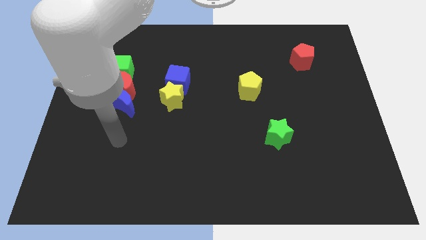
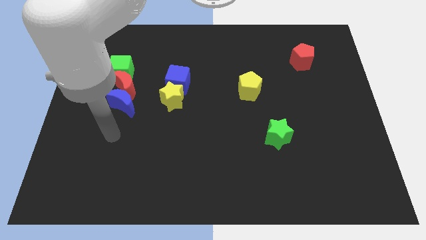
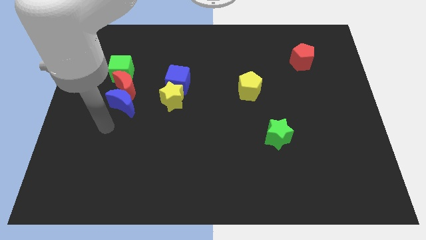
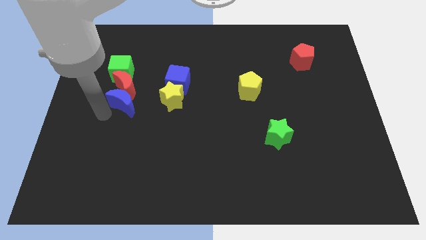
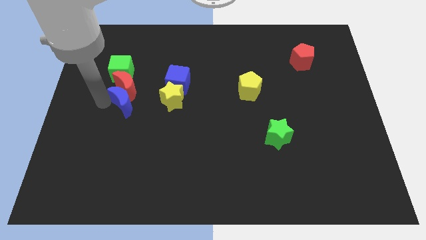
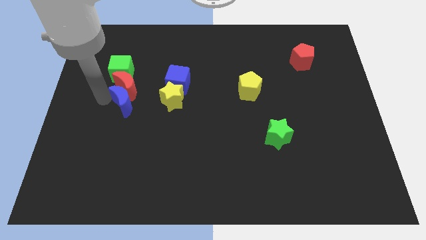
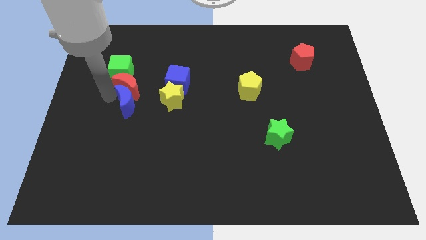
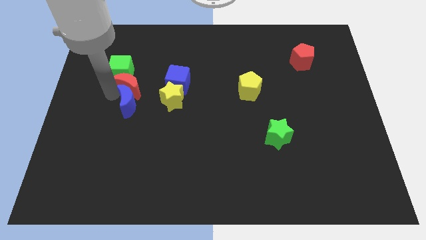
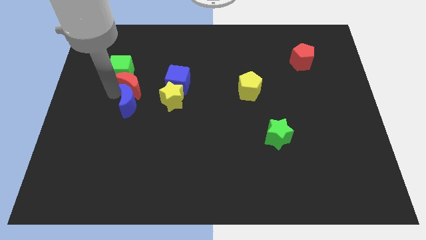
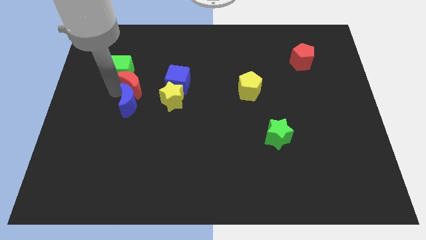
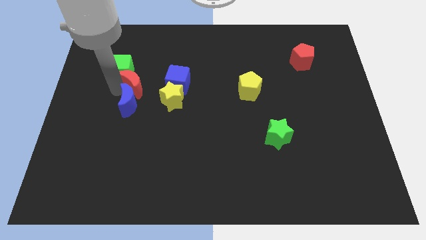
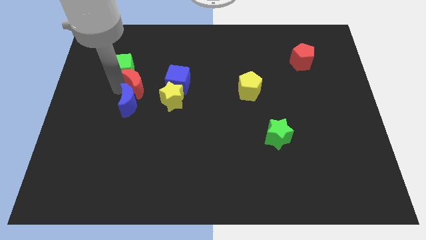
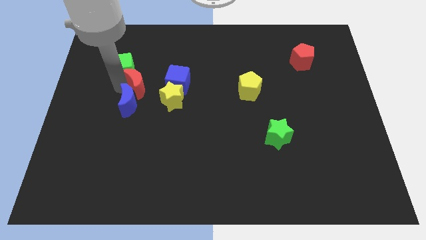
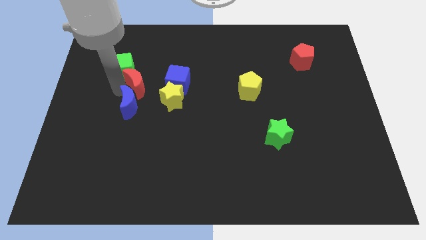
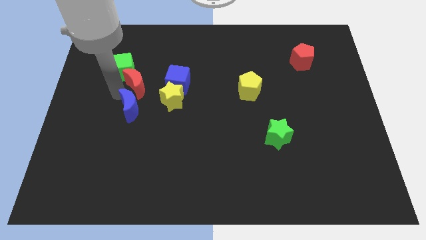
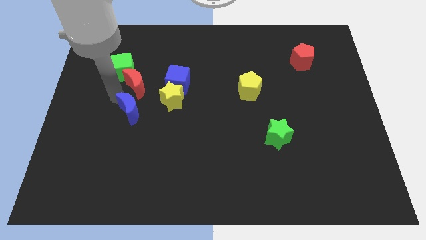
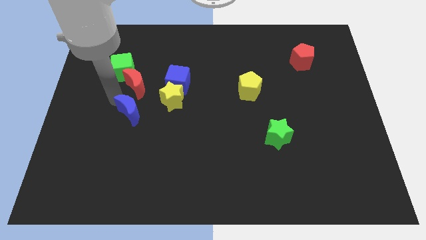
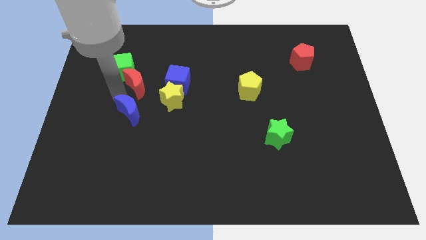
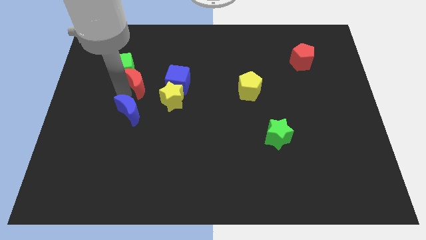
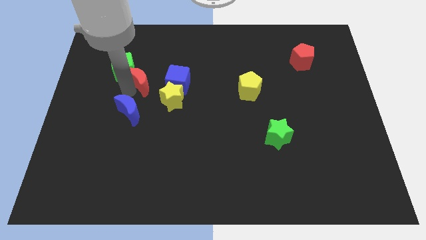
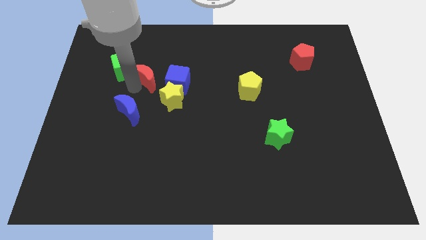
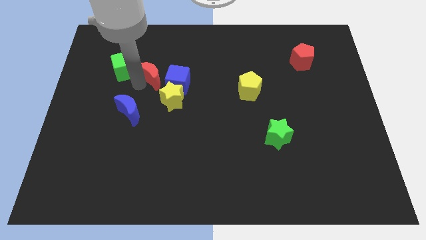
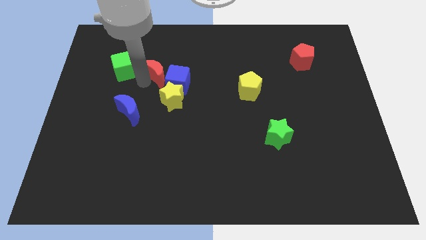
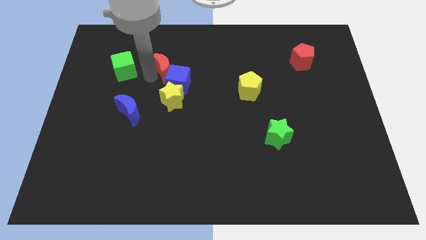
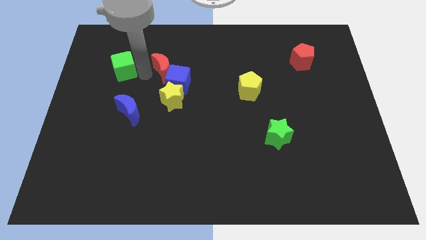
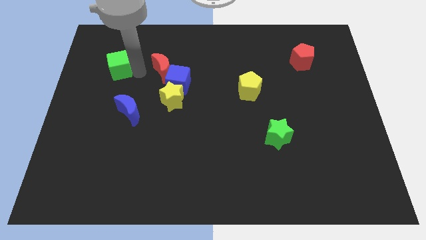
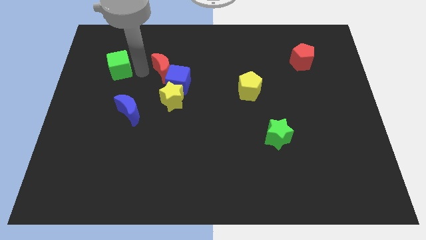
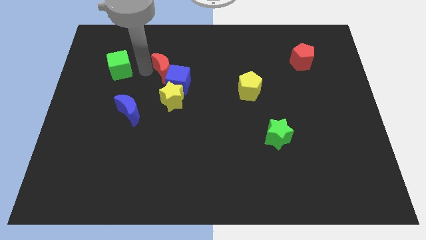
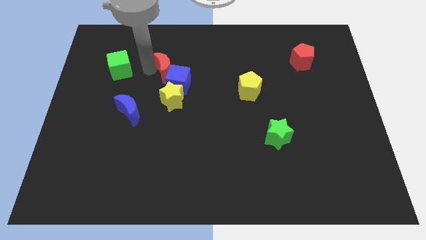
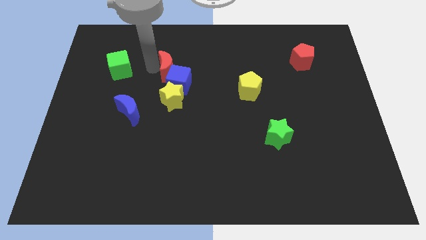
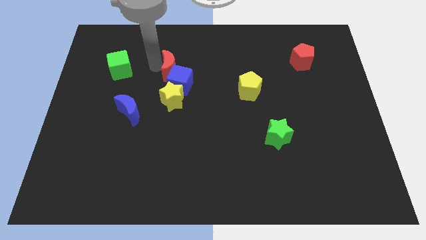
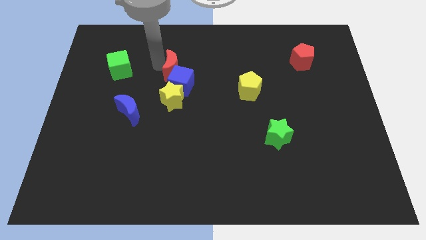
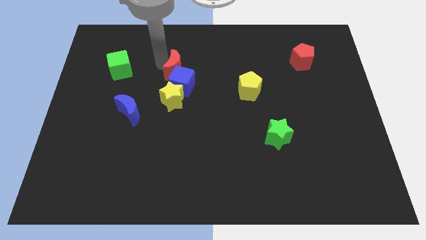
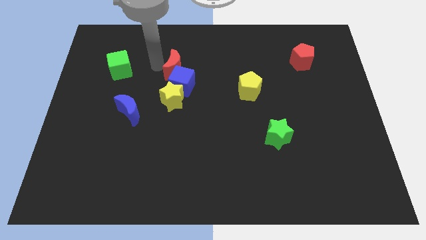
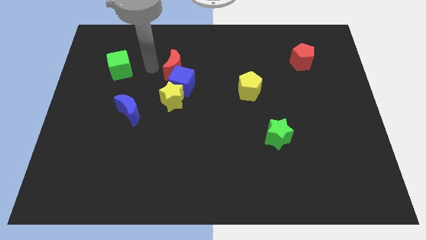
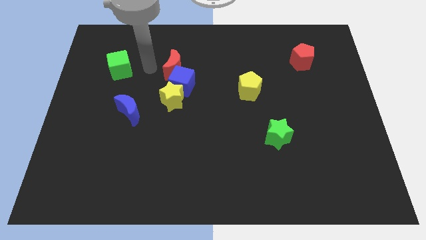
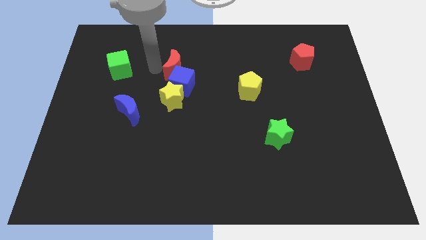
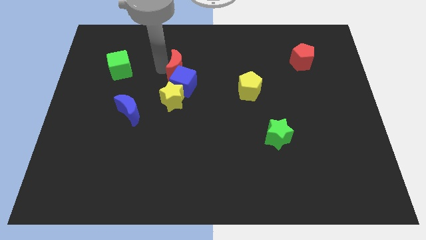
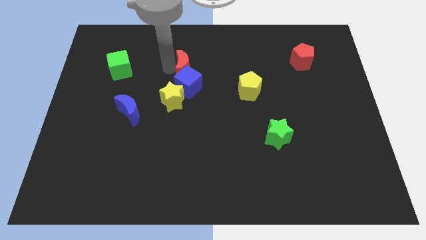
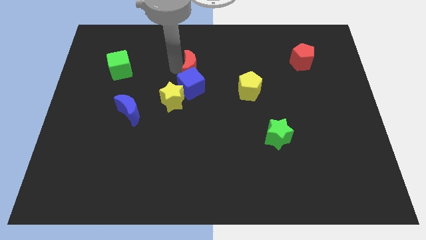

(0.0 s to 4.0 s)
move the red moon diagonally up and to the right of the blue cube

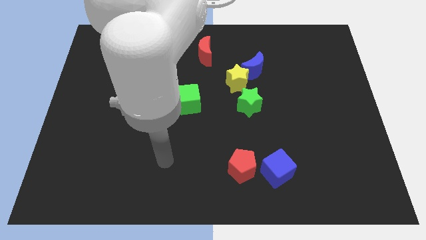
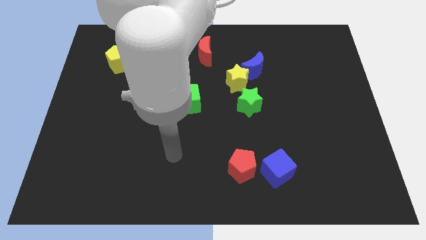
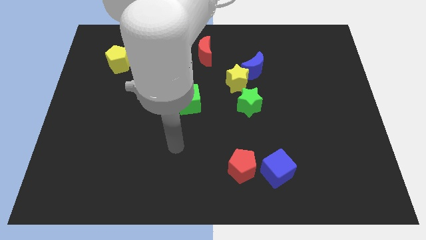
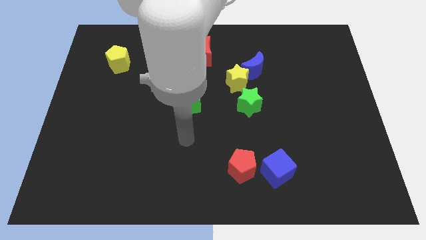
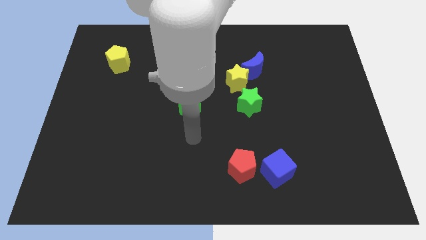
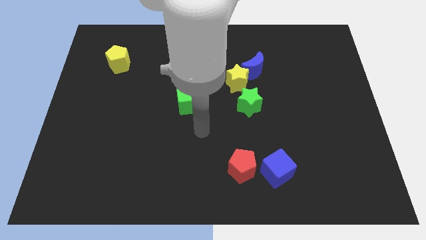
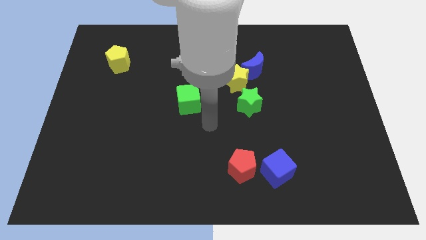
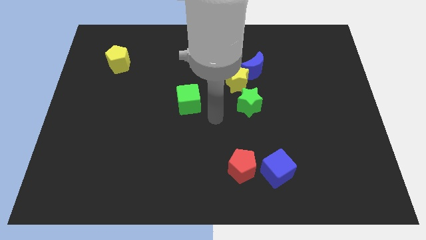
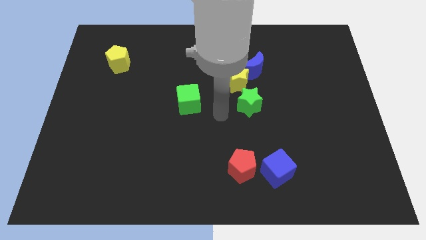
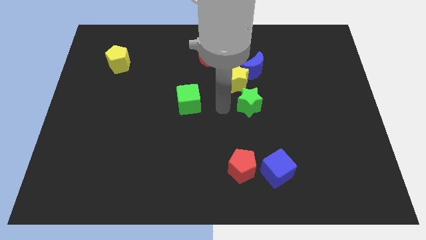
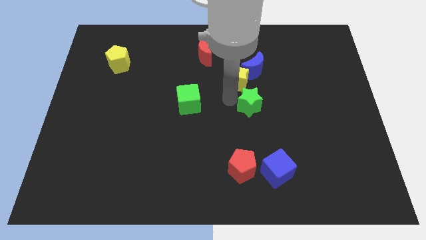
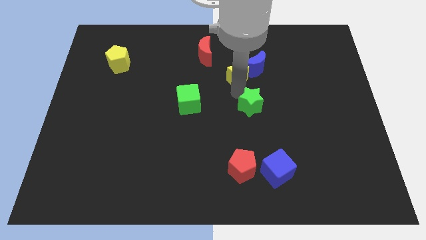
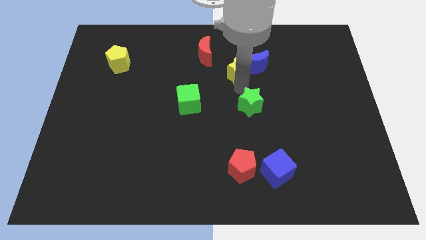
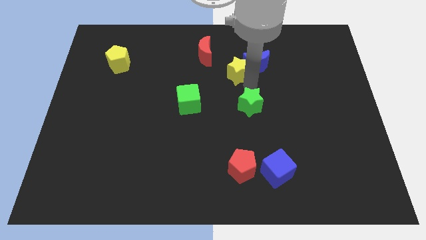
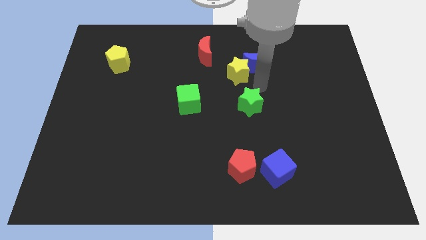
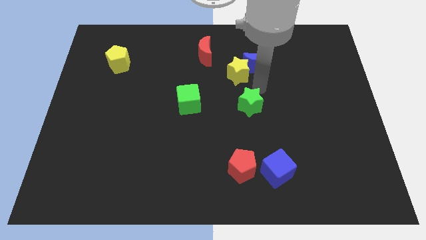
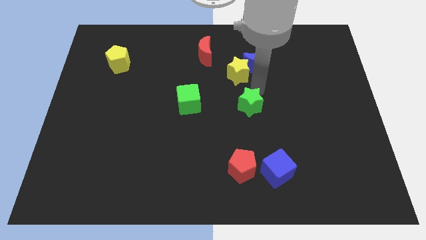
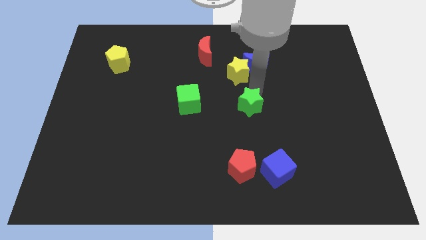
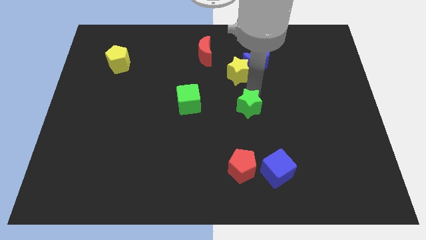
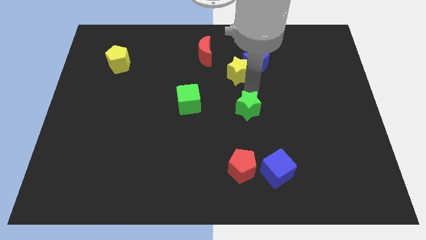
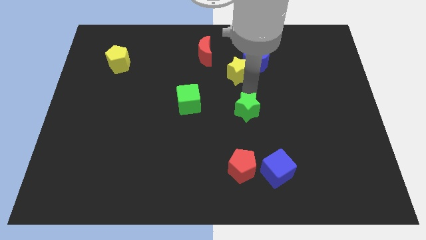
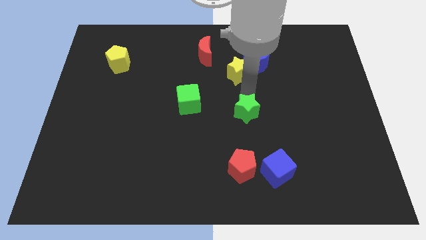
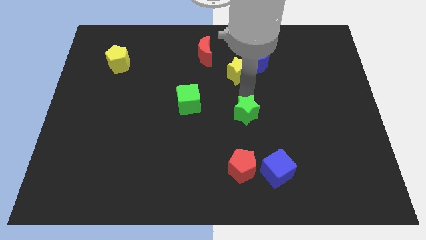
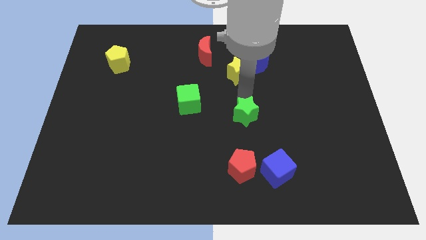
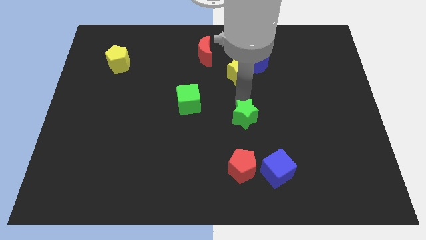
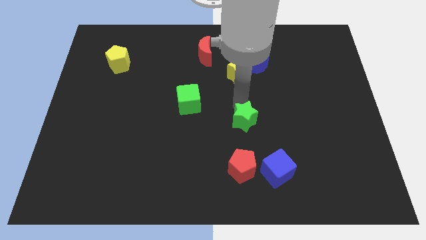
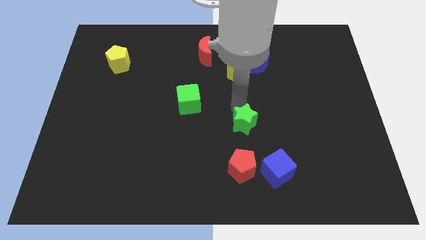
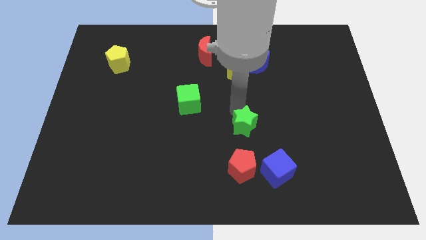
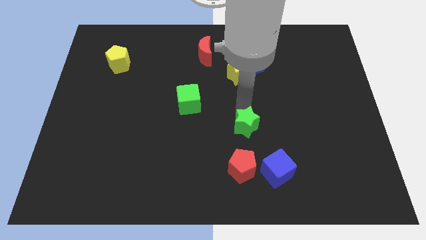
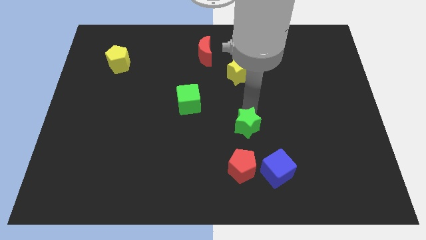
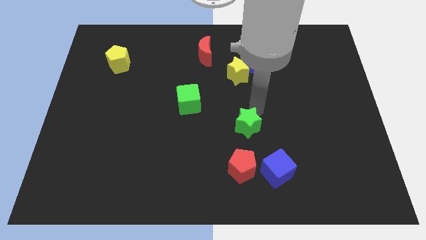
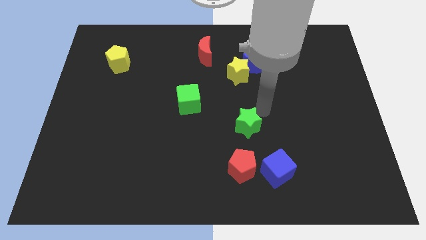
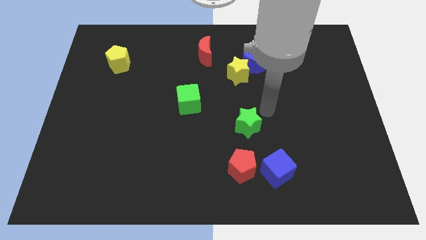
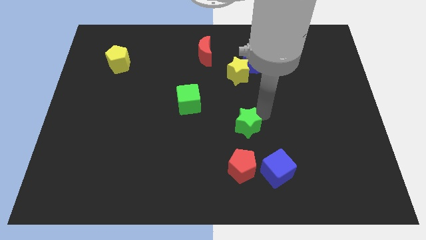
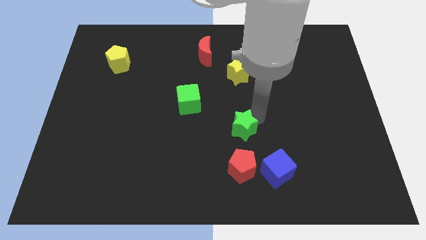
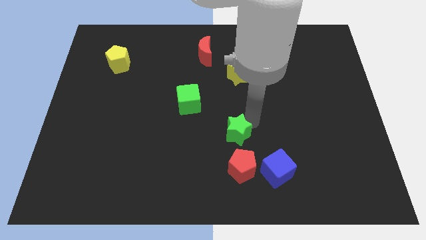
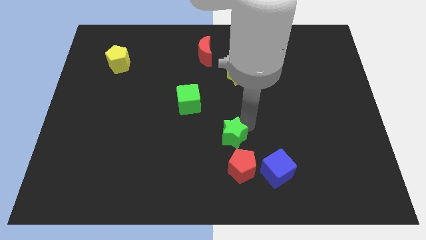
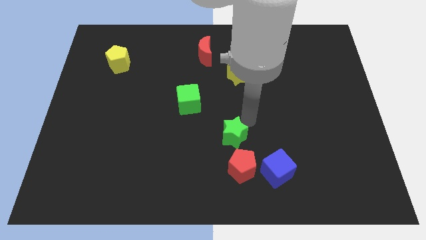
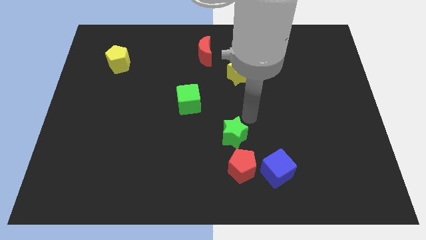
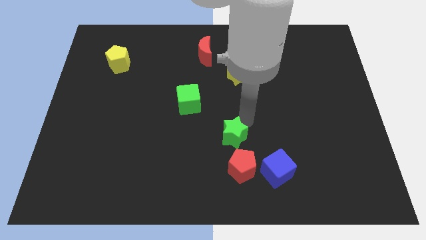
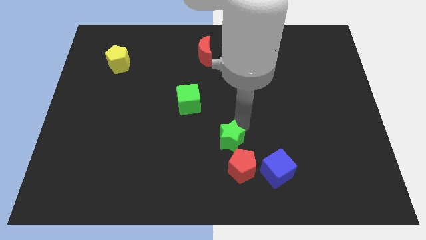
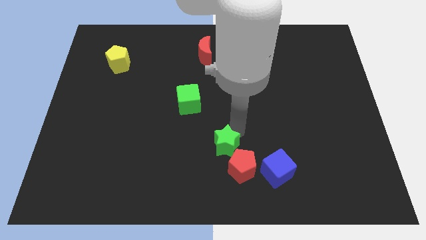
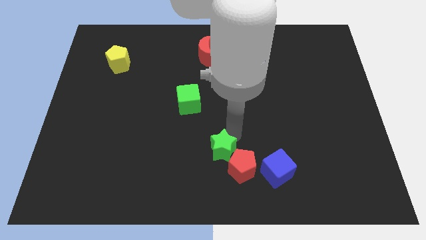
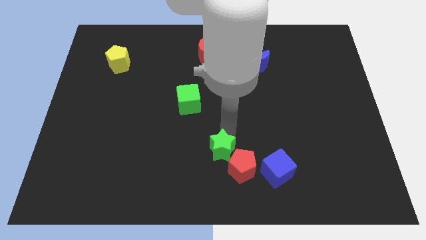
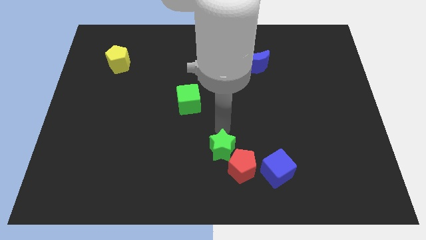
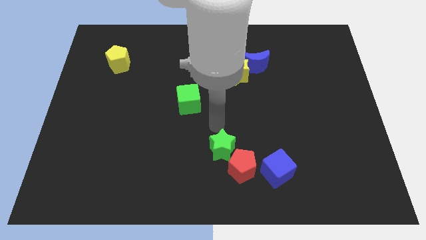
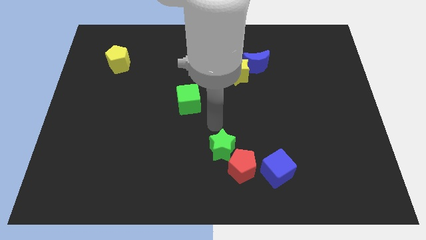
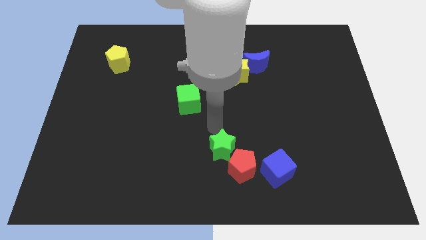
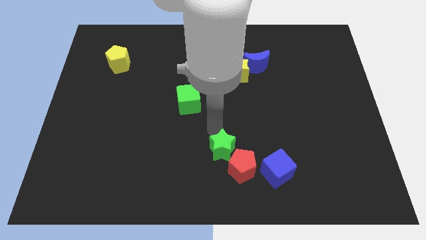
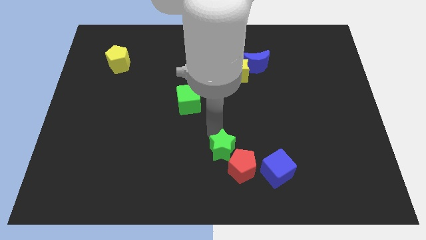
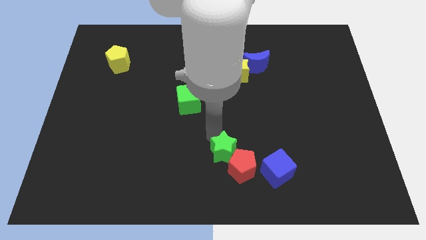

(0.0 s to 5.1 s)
slide the green star just left of the blue cube
